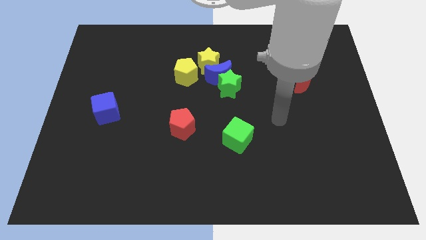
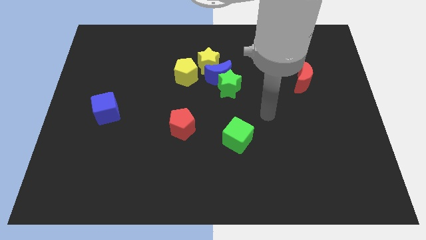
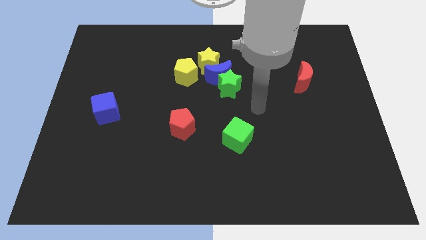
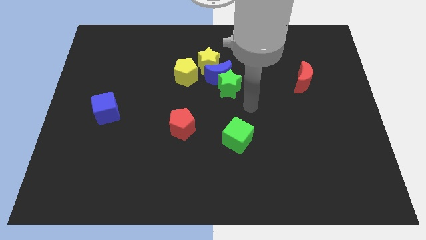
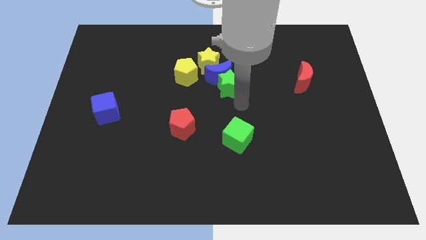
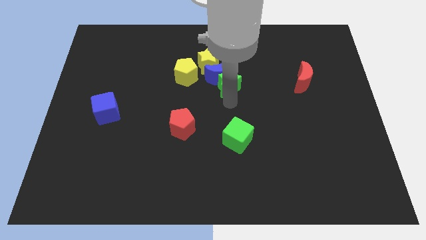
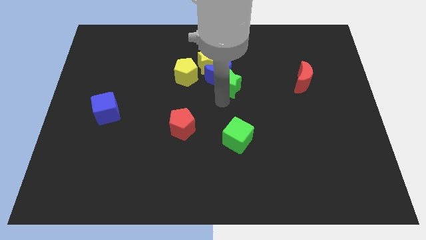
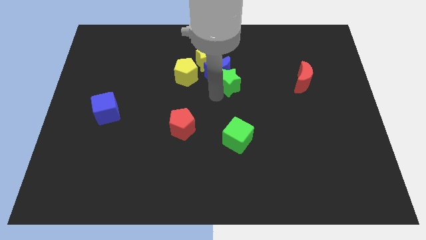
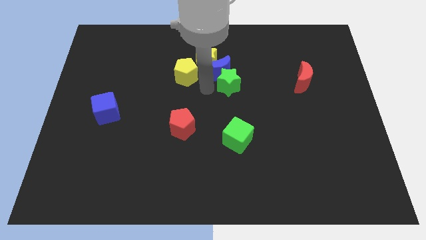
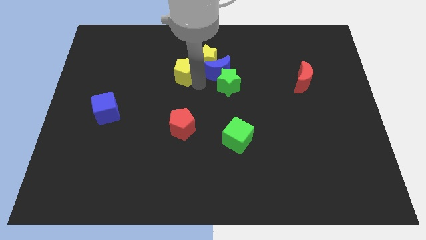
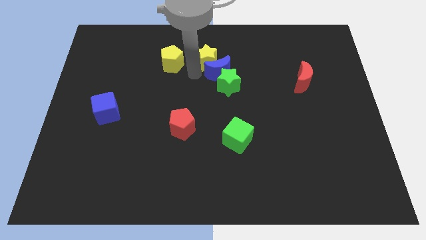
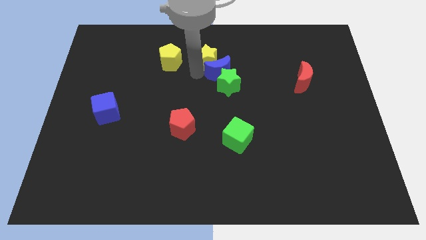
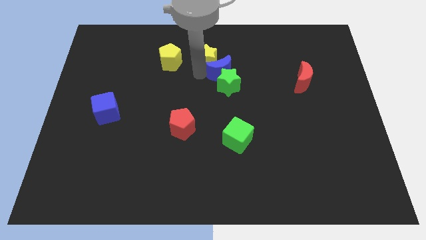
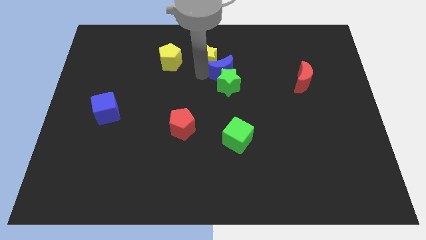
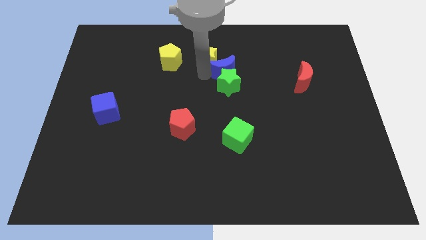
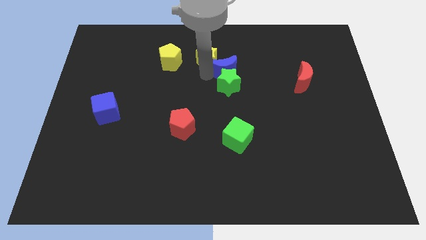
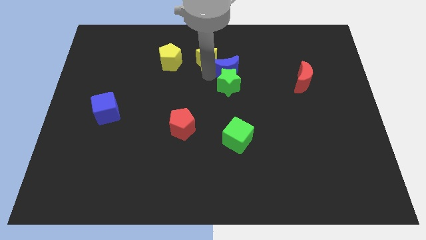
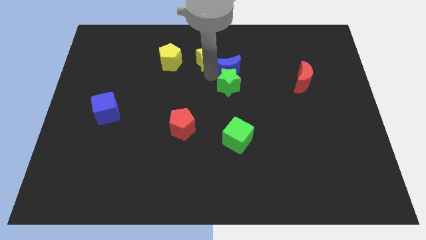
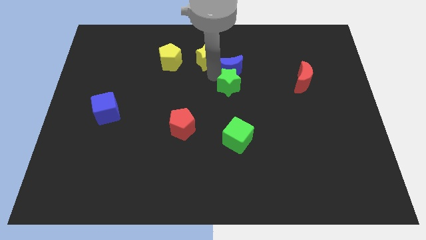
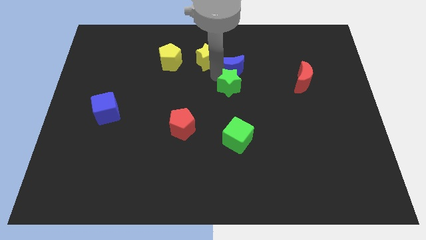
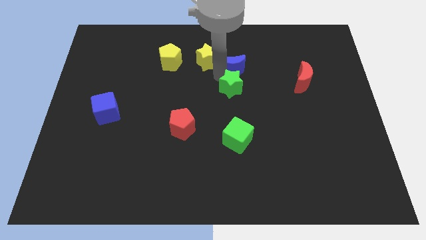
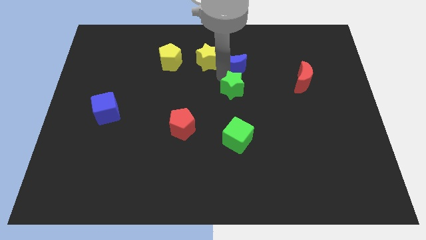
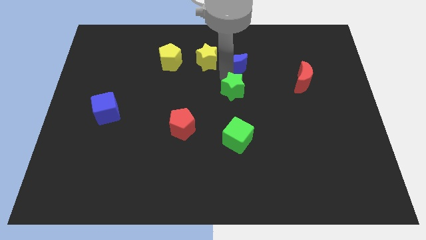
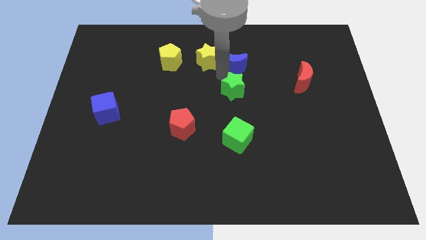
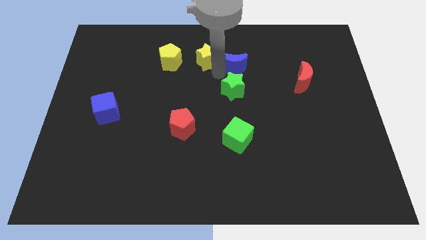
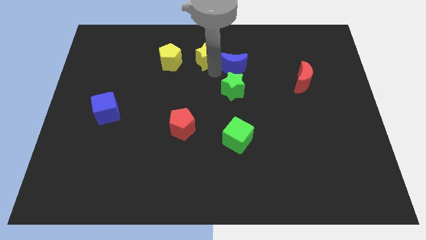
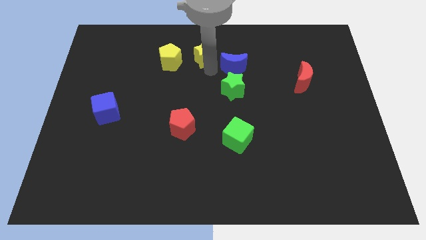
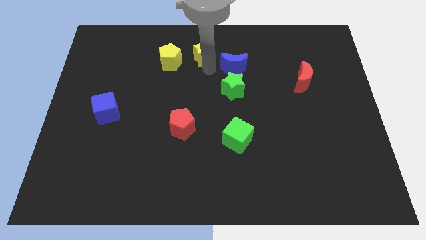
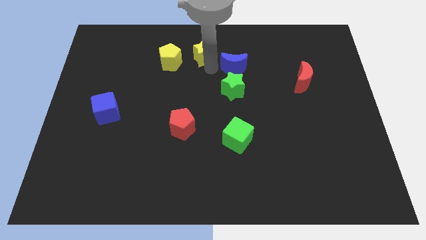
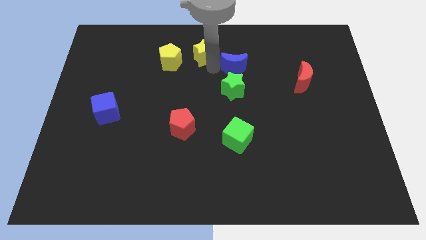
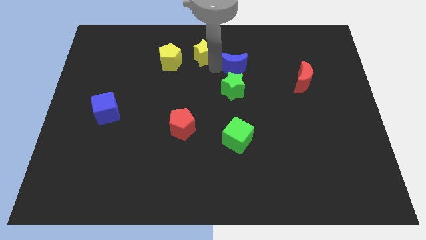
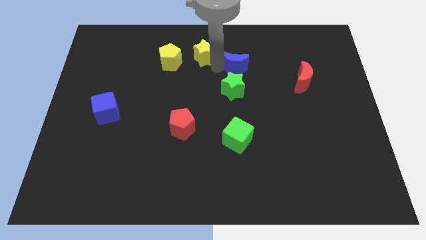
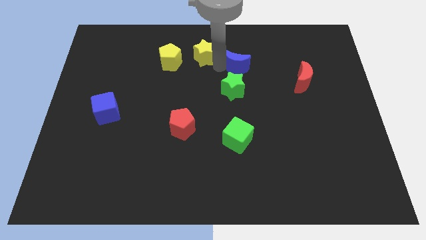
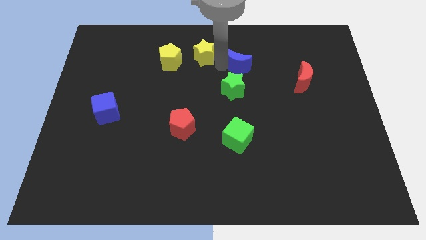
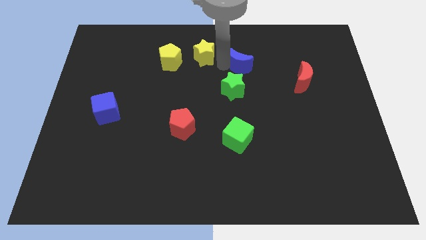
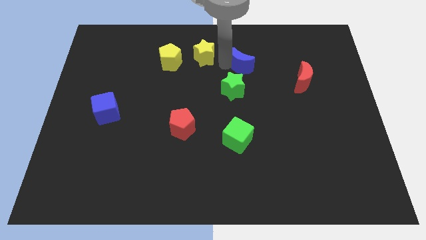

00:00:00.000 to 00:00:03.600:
move the blue moon away from the green star, yellow star, and yellow pentagon

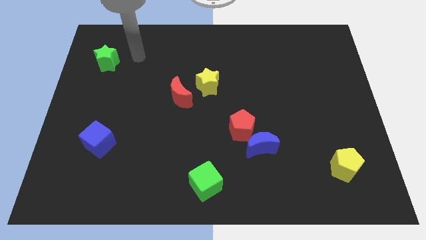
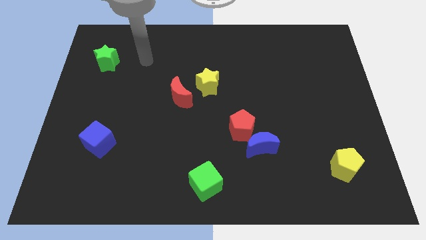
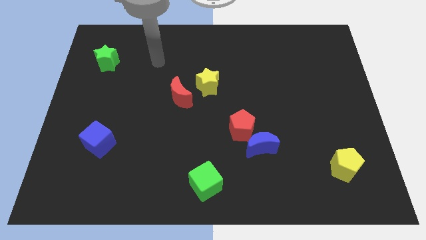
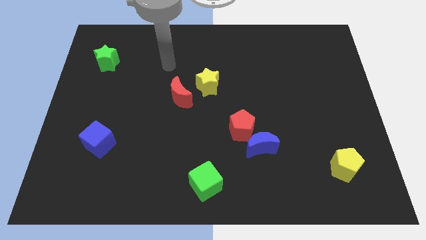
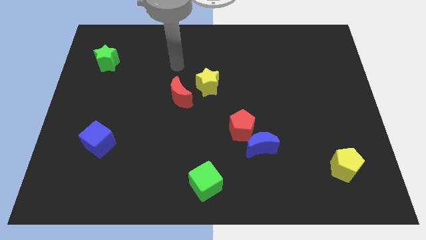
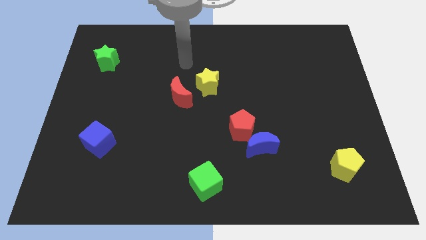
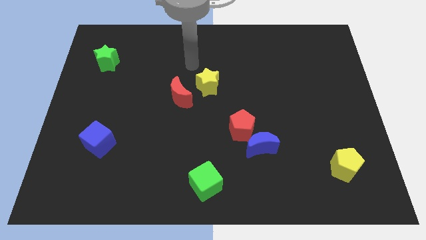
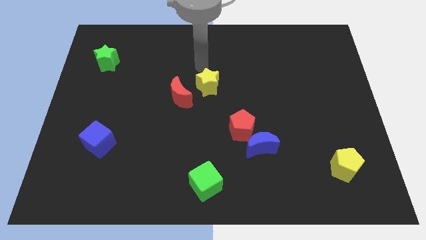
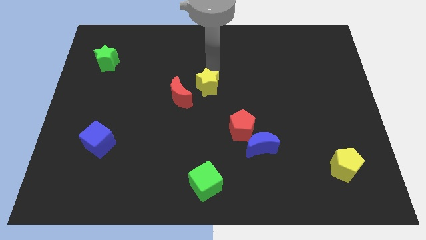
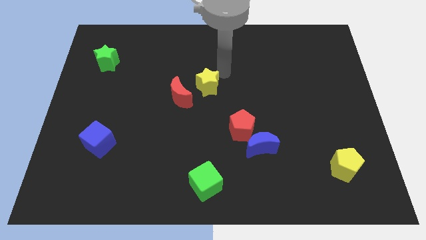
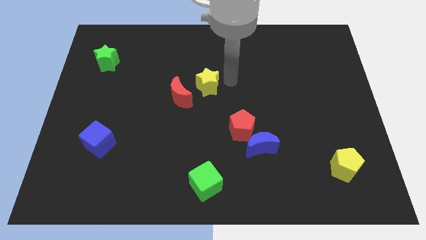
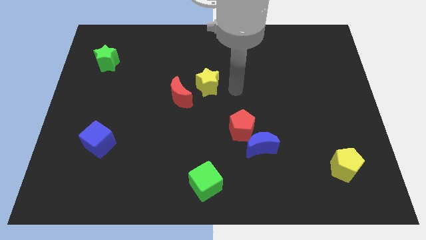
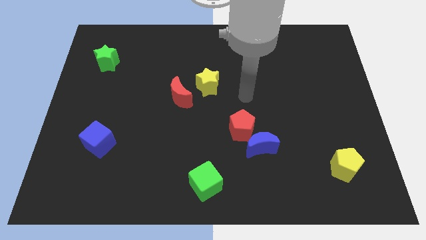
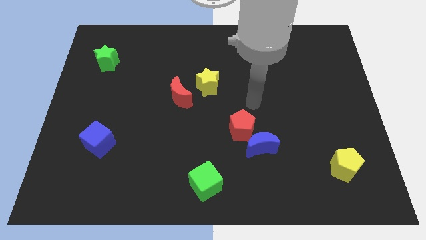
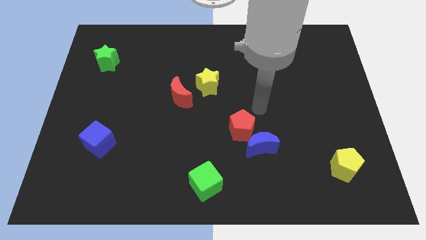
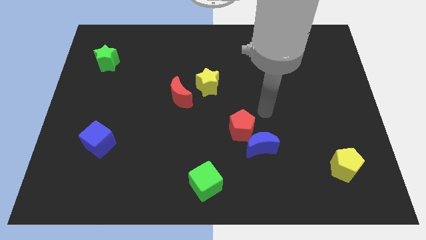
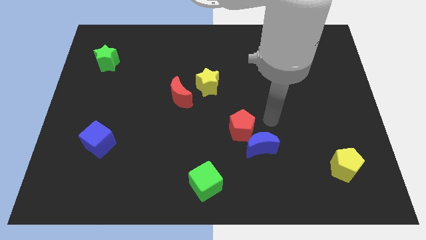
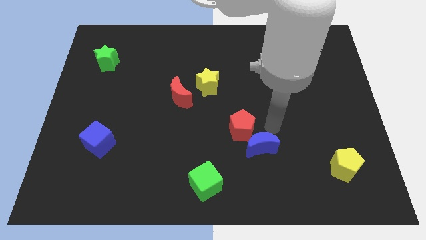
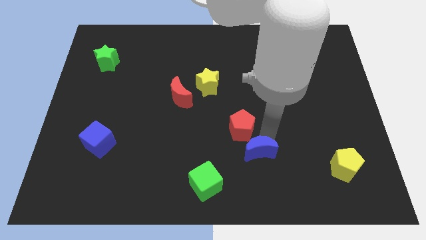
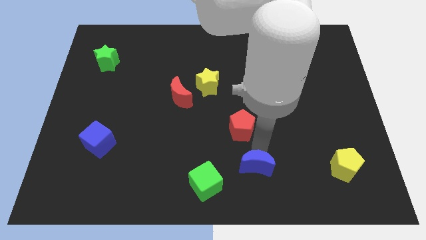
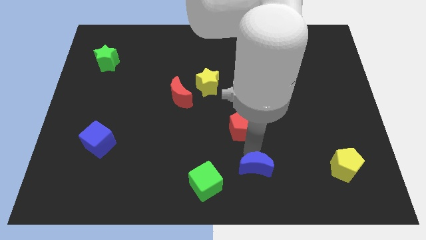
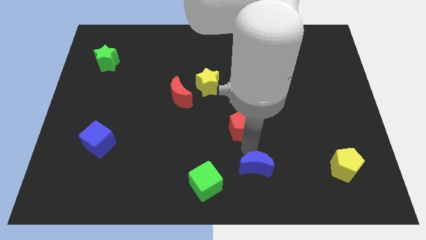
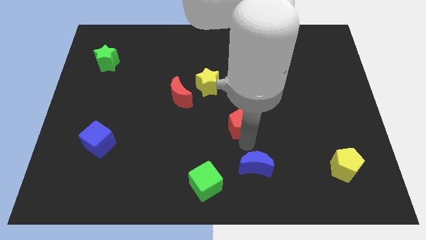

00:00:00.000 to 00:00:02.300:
separate the red pentagon from the blue moon

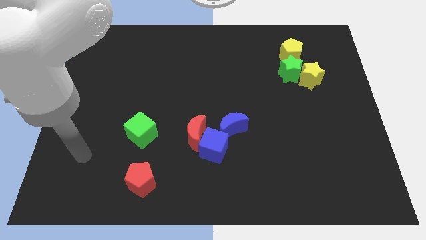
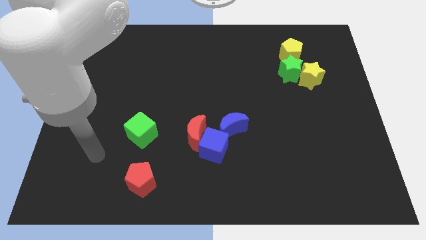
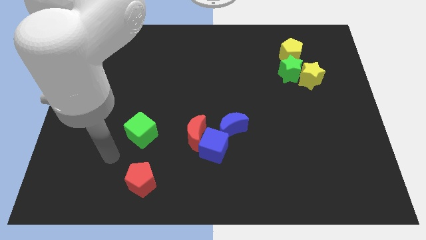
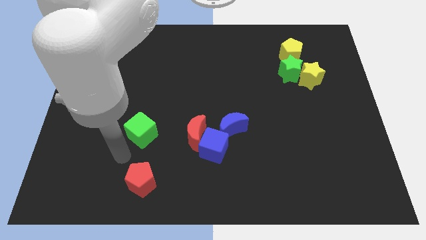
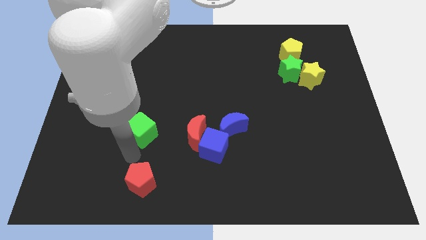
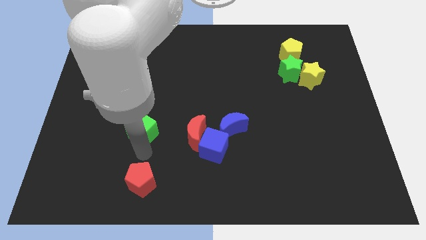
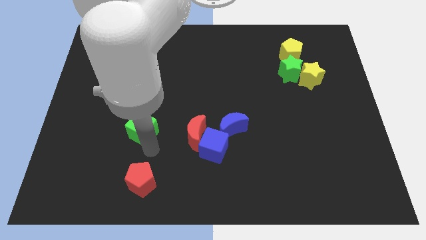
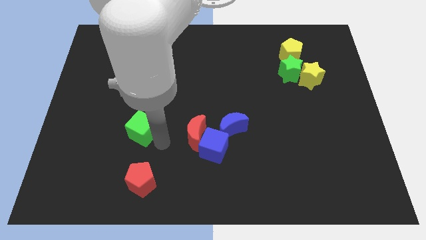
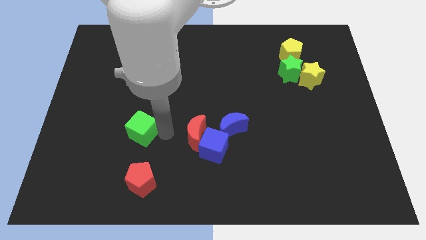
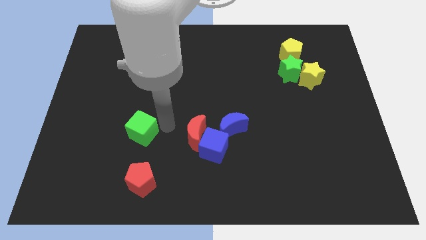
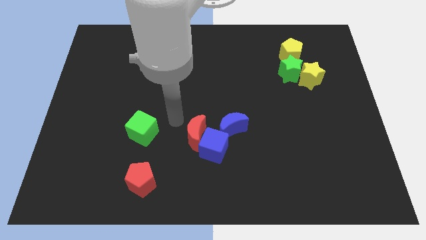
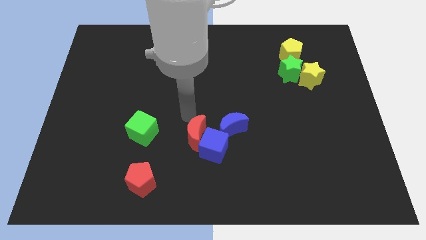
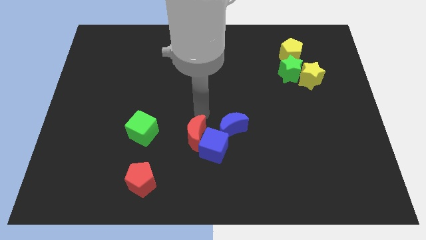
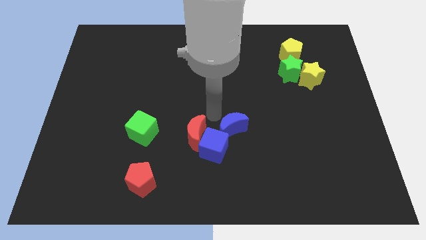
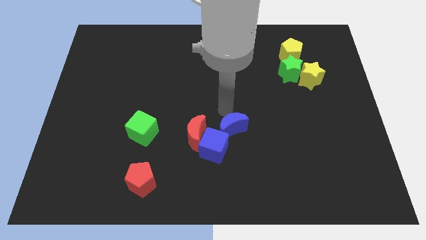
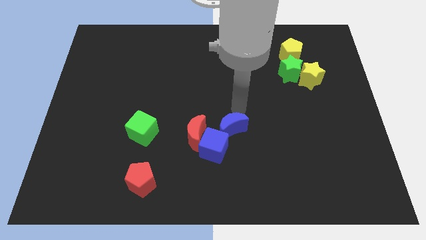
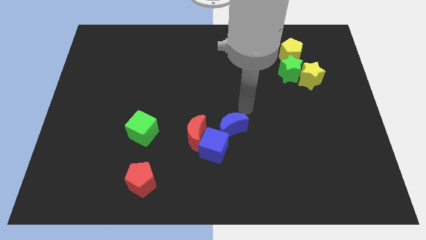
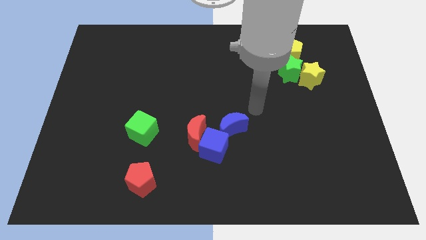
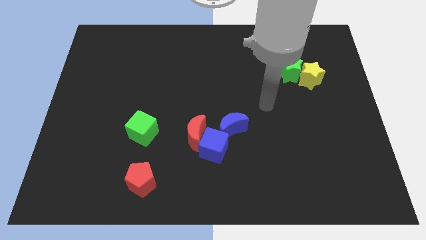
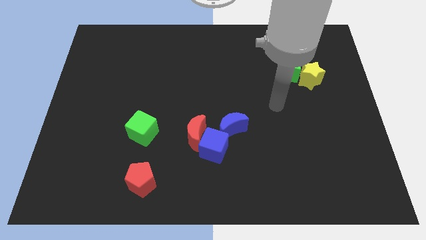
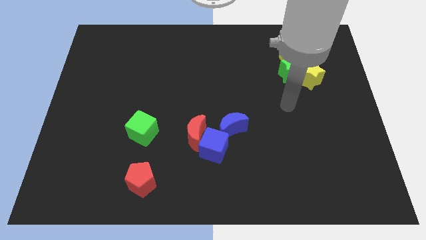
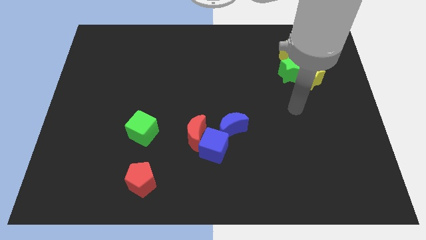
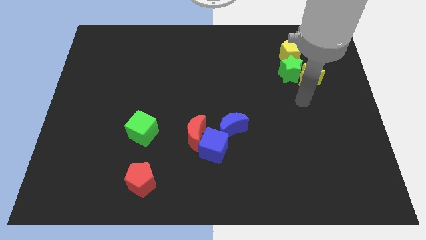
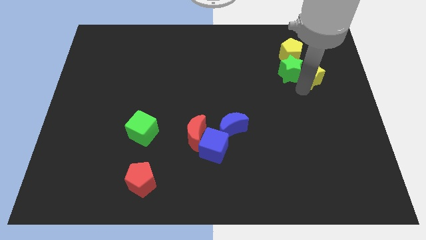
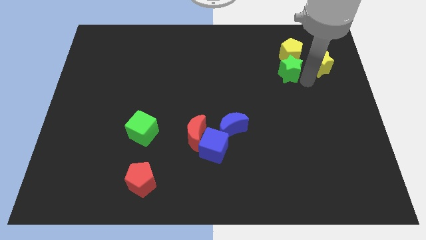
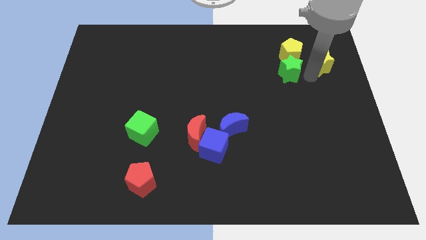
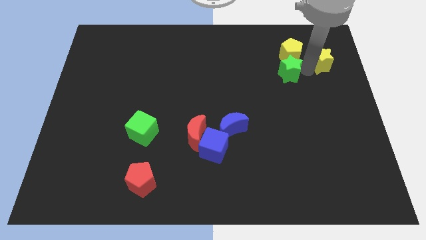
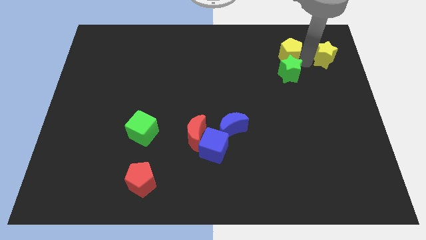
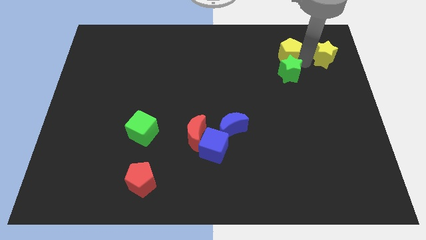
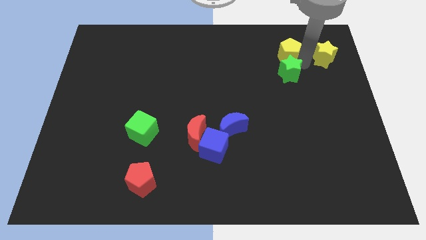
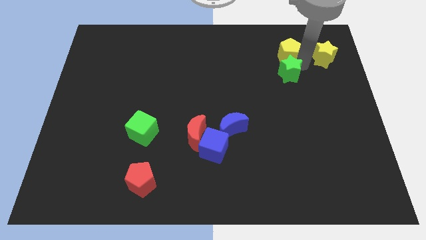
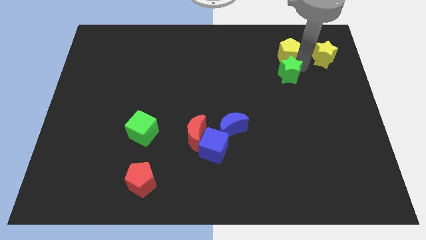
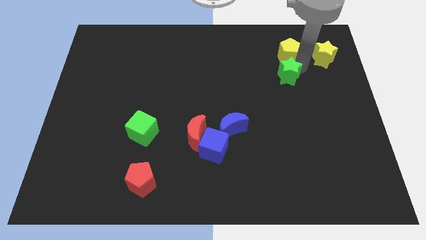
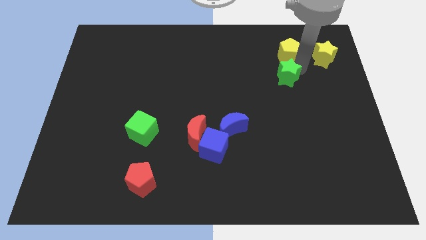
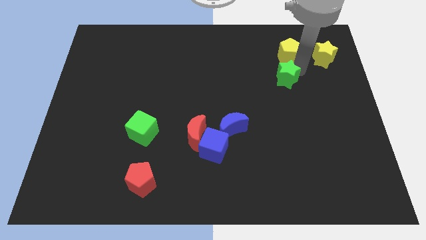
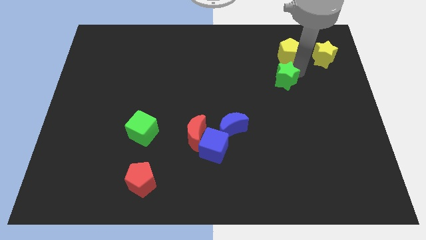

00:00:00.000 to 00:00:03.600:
pull the green star apart from the yellow star and yellow pentagon
